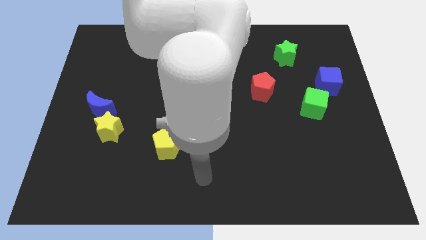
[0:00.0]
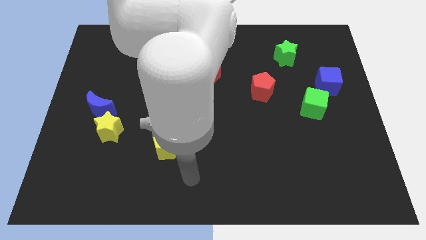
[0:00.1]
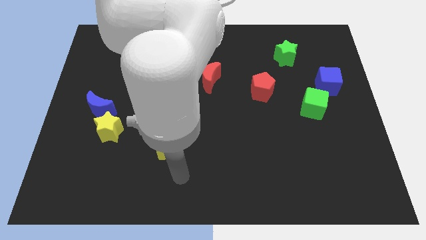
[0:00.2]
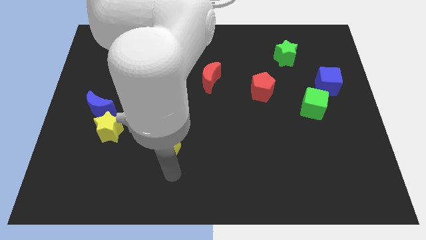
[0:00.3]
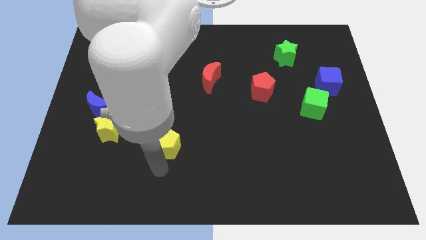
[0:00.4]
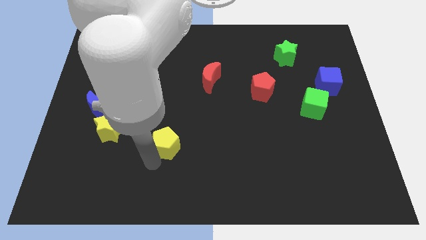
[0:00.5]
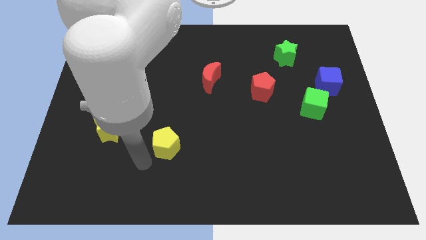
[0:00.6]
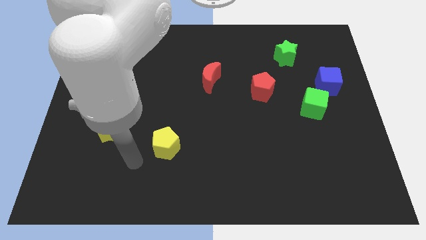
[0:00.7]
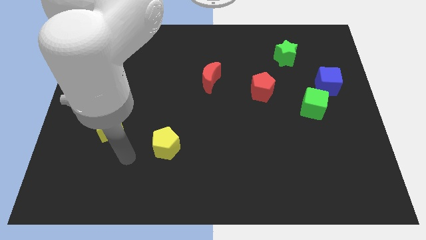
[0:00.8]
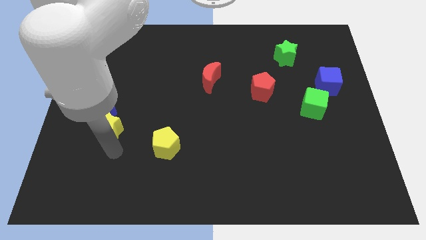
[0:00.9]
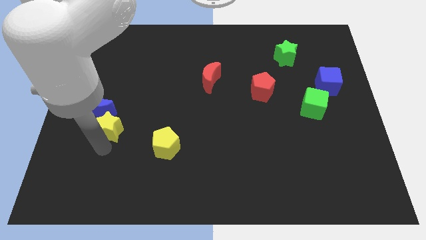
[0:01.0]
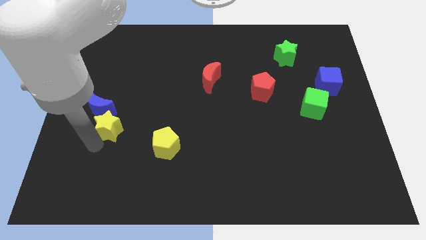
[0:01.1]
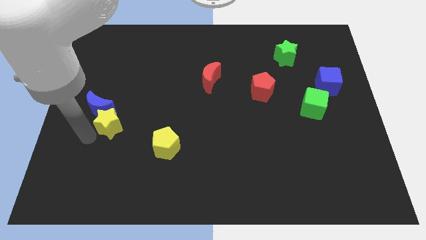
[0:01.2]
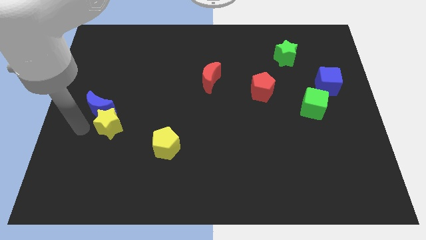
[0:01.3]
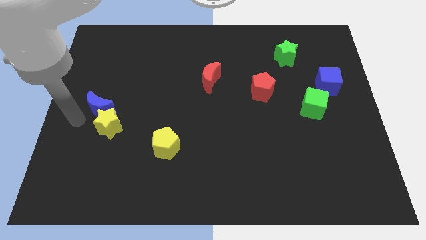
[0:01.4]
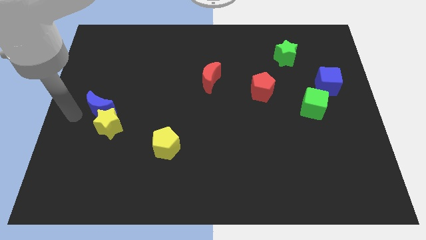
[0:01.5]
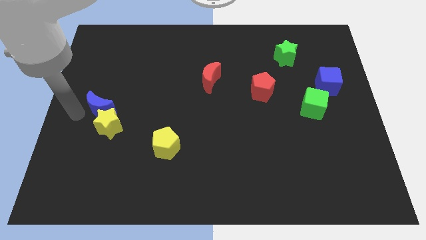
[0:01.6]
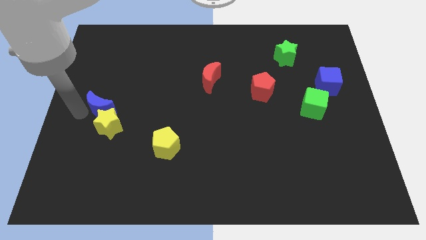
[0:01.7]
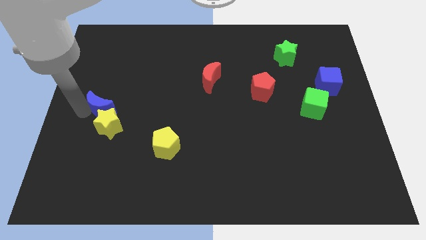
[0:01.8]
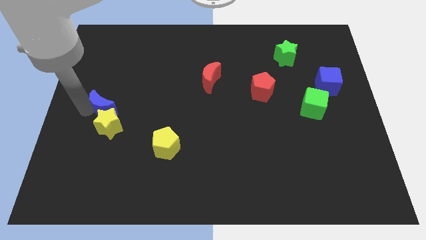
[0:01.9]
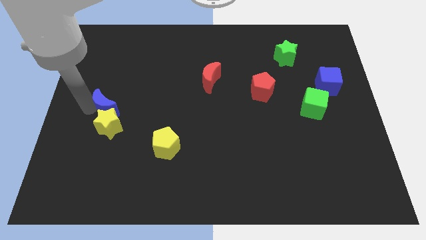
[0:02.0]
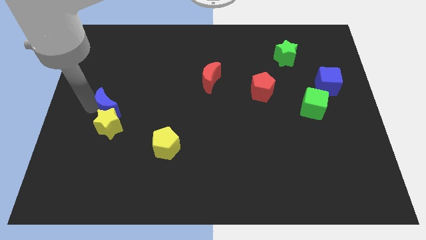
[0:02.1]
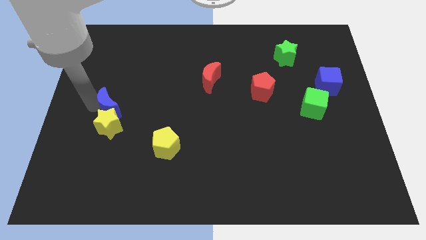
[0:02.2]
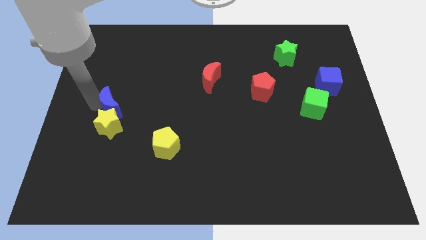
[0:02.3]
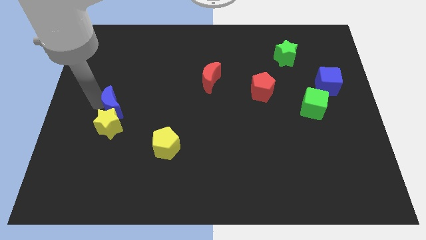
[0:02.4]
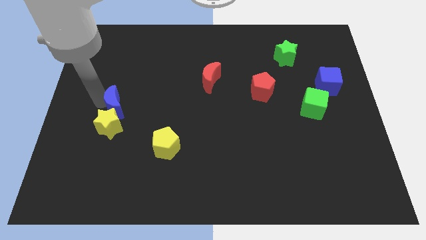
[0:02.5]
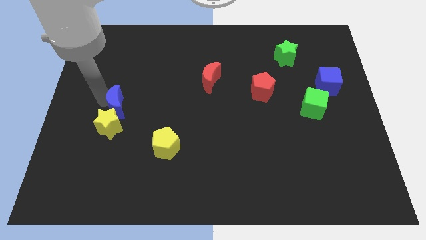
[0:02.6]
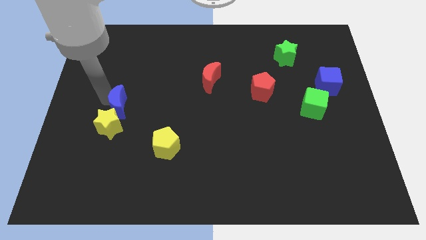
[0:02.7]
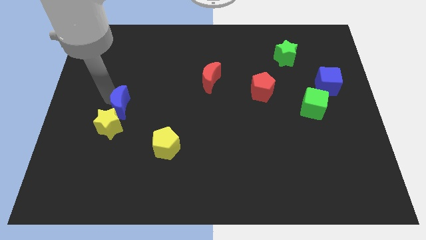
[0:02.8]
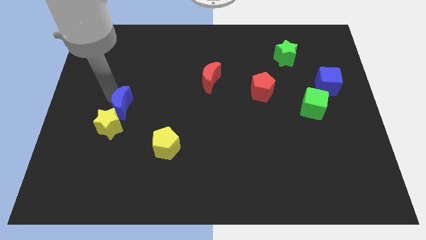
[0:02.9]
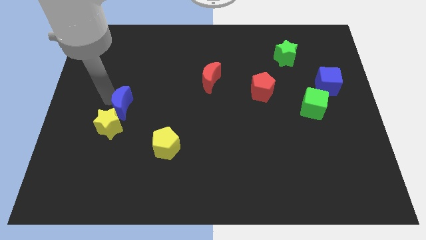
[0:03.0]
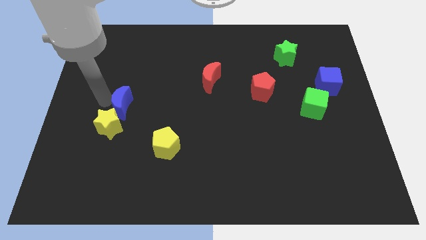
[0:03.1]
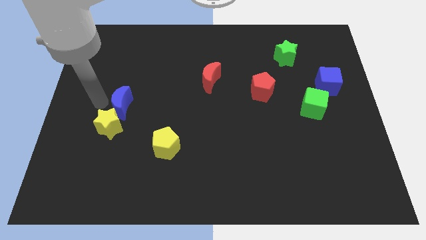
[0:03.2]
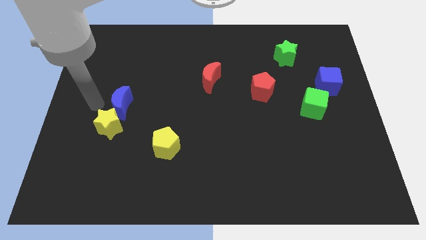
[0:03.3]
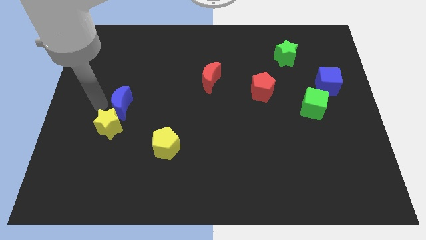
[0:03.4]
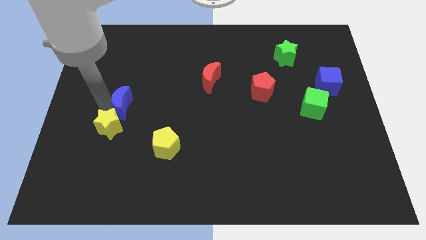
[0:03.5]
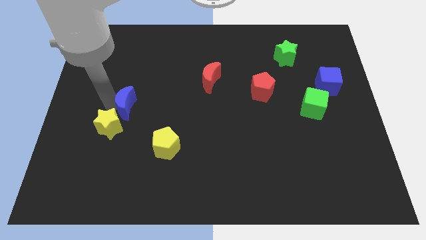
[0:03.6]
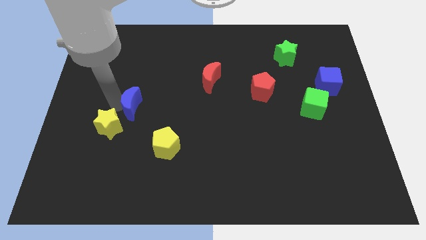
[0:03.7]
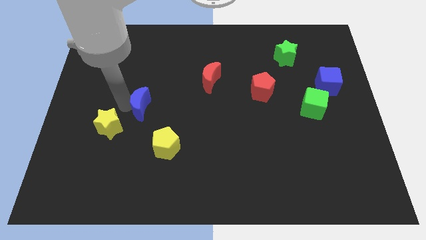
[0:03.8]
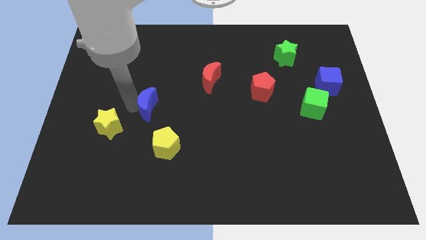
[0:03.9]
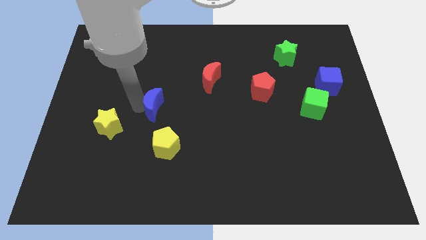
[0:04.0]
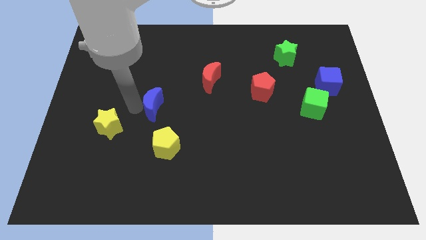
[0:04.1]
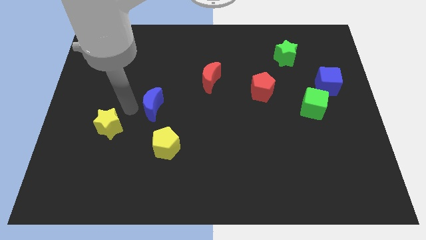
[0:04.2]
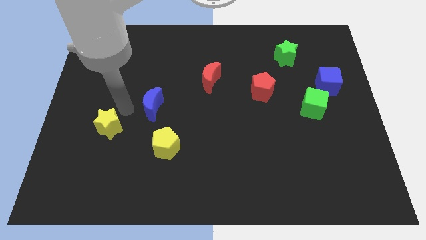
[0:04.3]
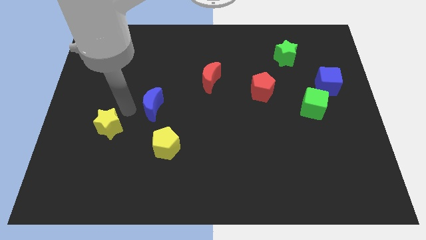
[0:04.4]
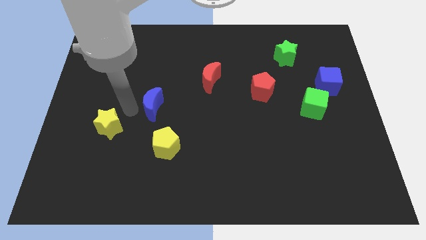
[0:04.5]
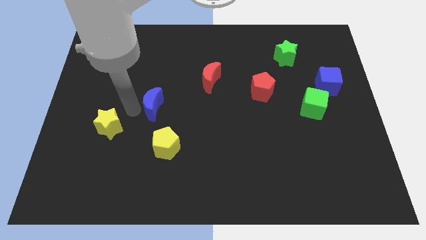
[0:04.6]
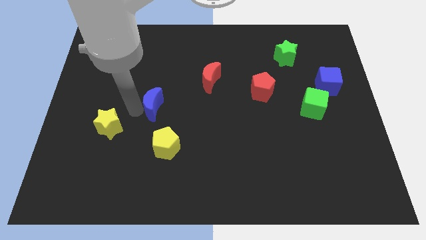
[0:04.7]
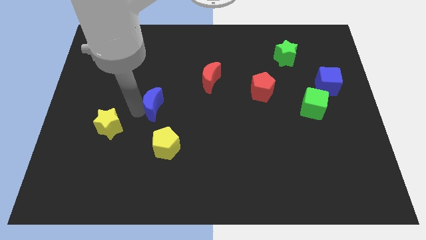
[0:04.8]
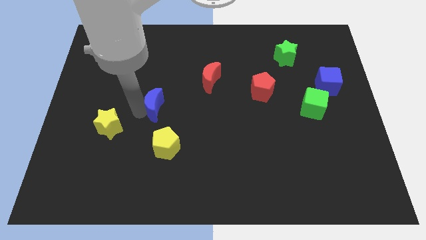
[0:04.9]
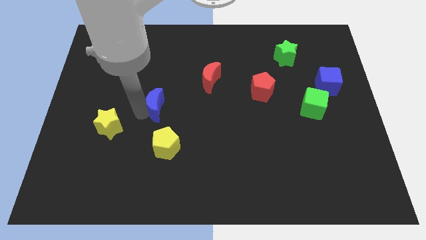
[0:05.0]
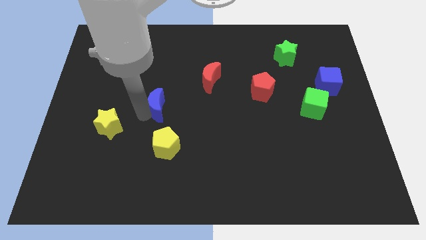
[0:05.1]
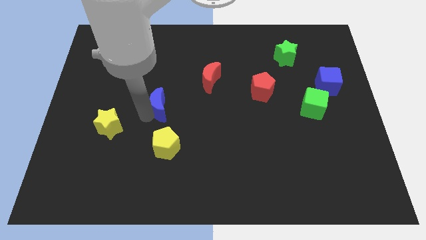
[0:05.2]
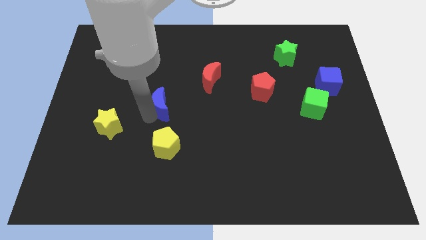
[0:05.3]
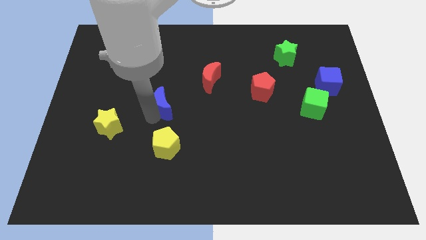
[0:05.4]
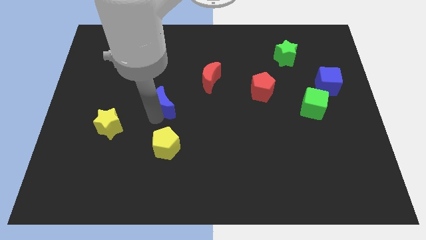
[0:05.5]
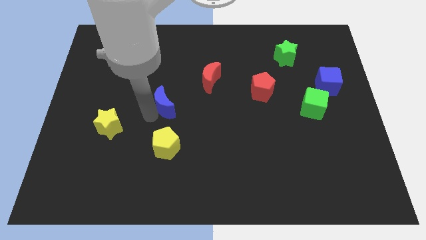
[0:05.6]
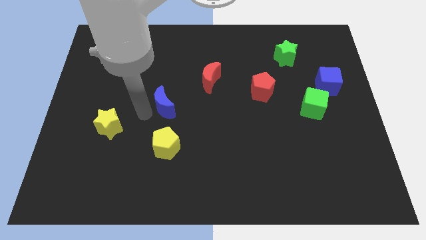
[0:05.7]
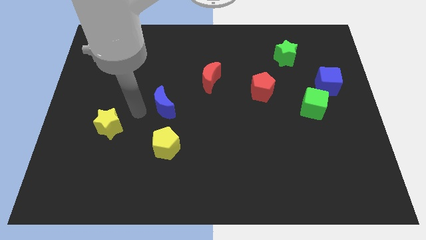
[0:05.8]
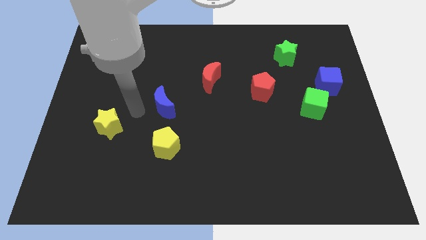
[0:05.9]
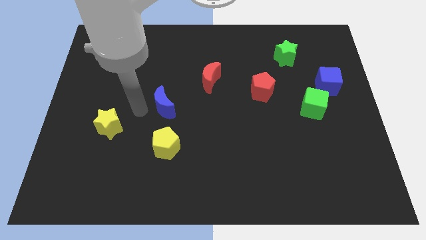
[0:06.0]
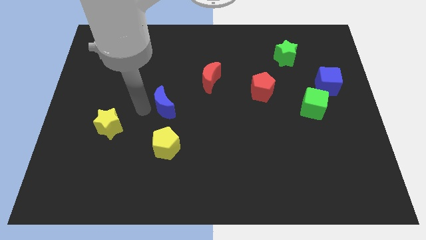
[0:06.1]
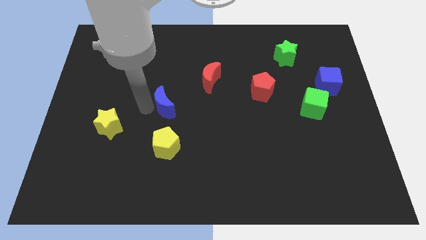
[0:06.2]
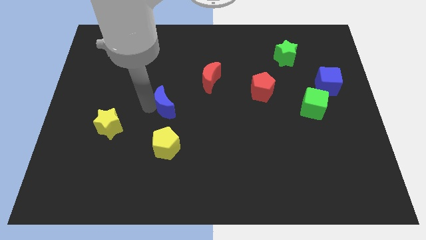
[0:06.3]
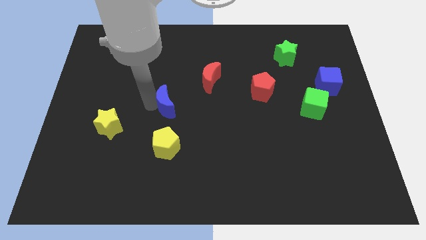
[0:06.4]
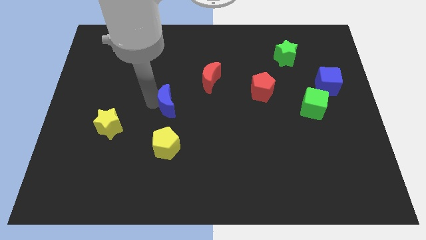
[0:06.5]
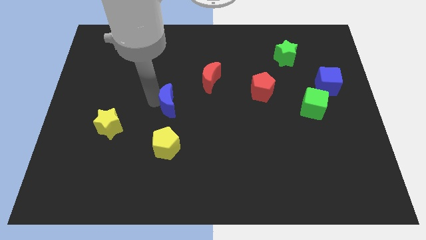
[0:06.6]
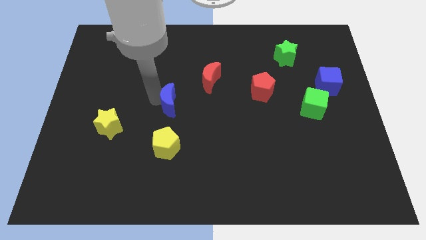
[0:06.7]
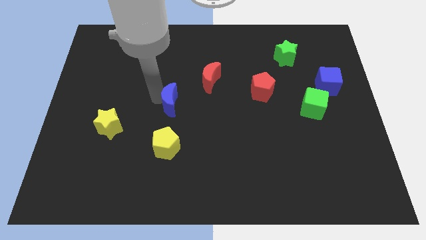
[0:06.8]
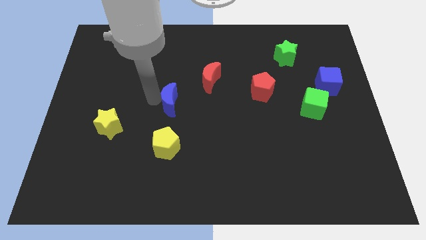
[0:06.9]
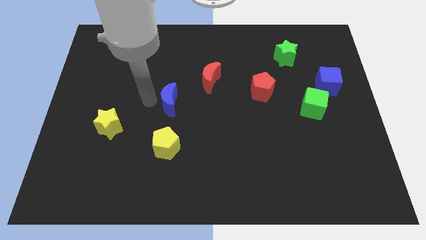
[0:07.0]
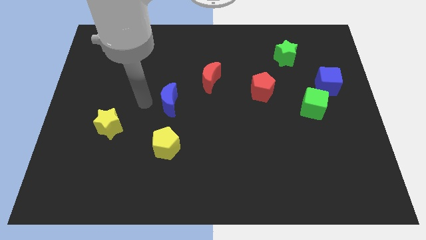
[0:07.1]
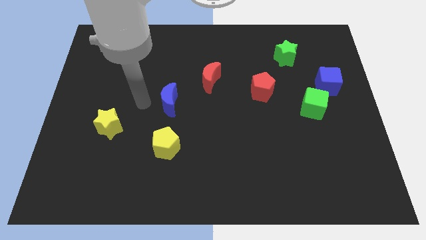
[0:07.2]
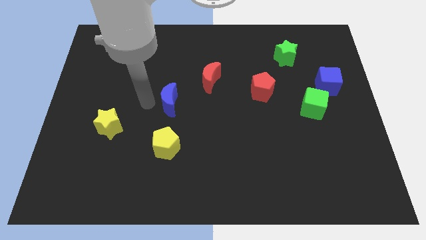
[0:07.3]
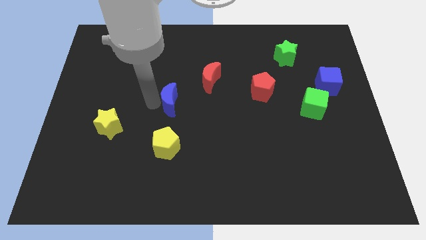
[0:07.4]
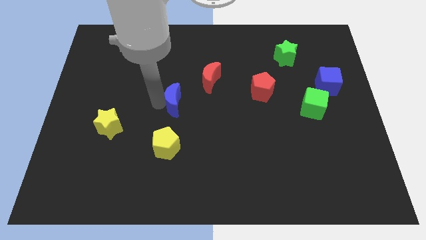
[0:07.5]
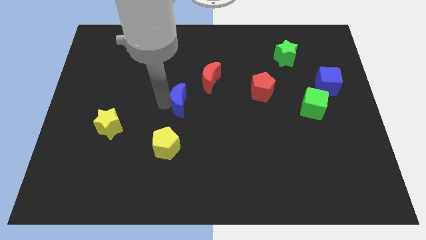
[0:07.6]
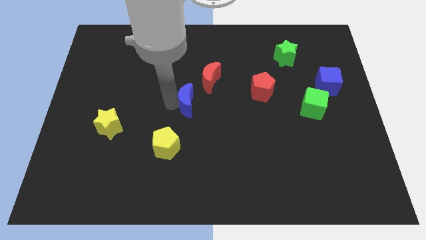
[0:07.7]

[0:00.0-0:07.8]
slide the blue moon to the right
